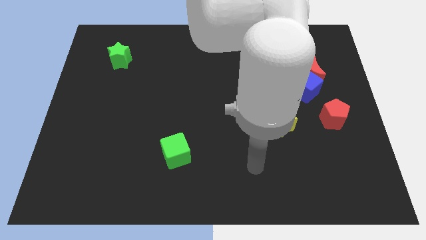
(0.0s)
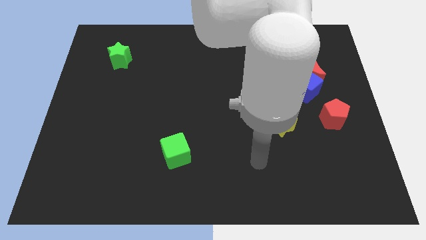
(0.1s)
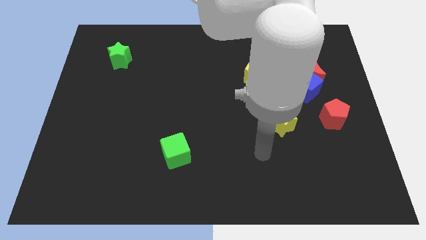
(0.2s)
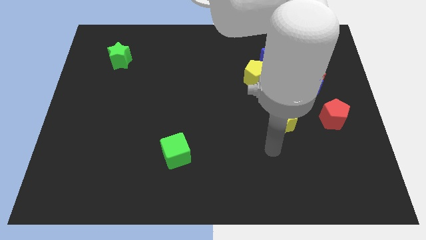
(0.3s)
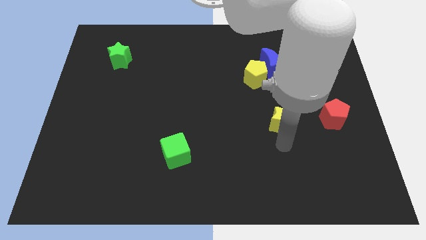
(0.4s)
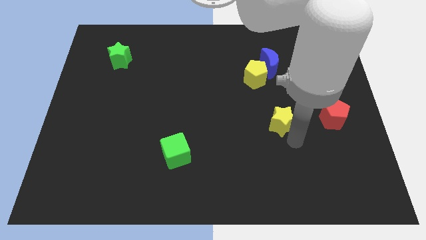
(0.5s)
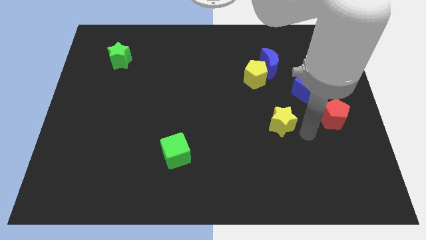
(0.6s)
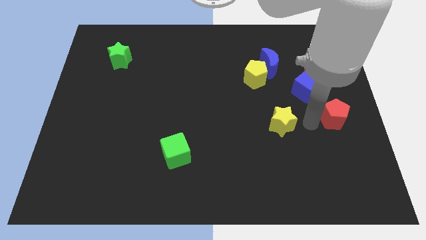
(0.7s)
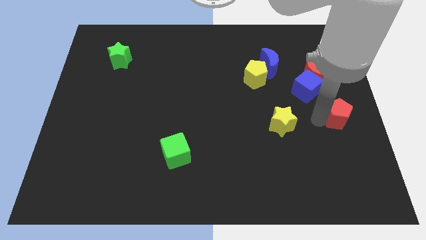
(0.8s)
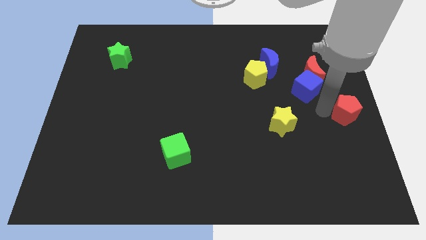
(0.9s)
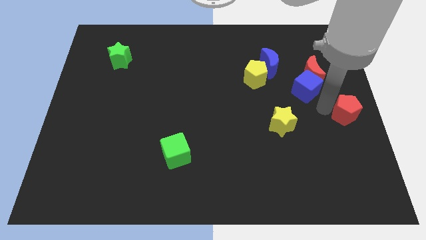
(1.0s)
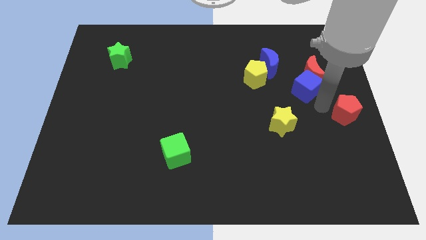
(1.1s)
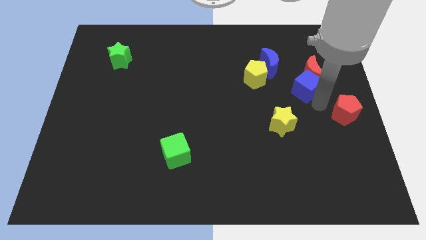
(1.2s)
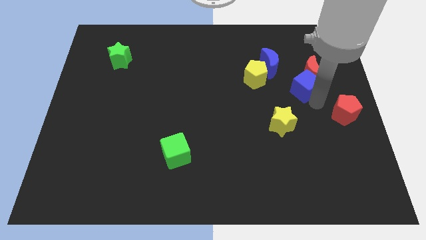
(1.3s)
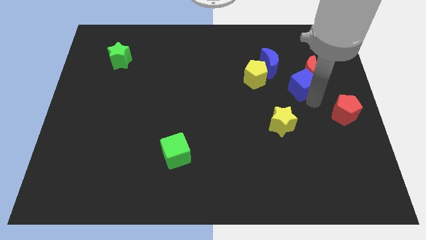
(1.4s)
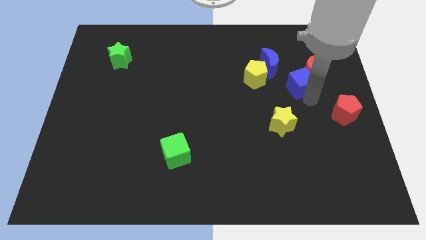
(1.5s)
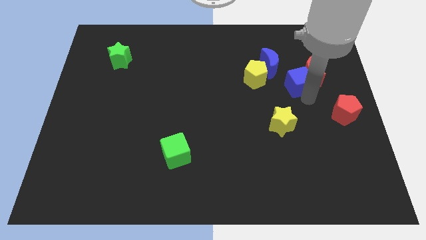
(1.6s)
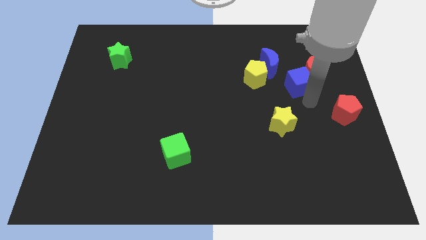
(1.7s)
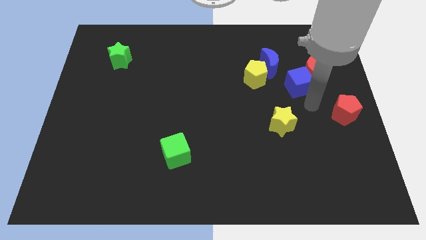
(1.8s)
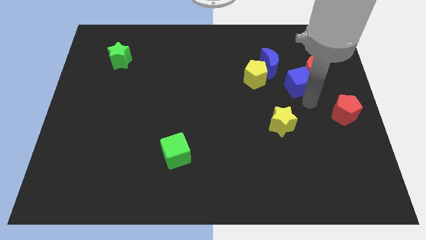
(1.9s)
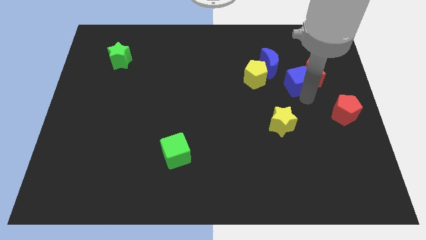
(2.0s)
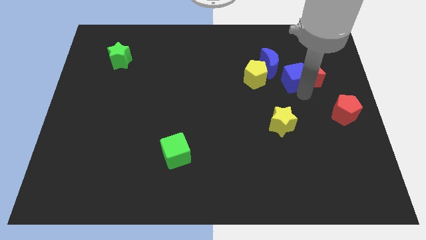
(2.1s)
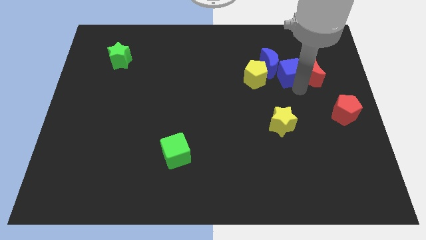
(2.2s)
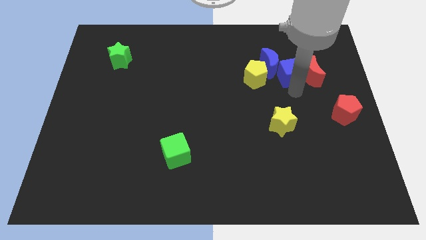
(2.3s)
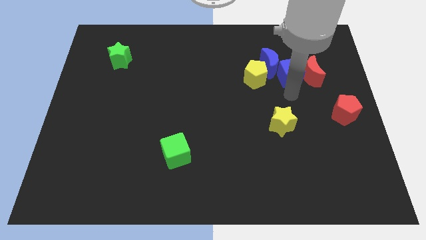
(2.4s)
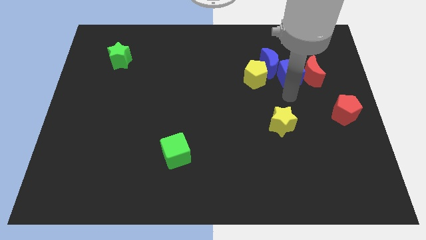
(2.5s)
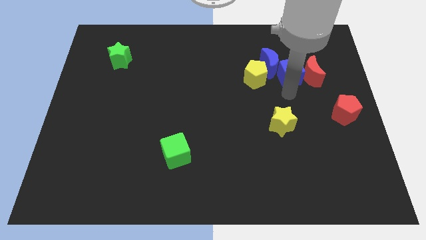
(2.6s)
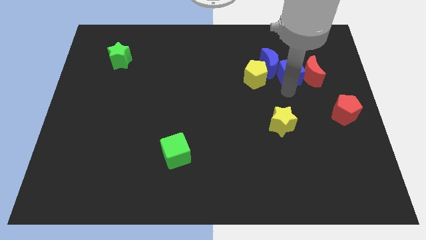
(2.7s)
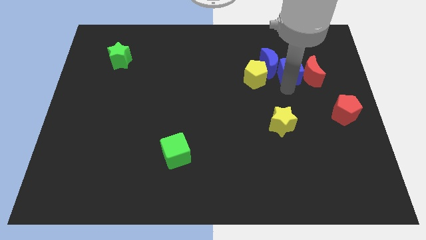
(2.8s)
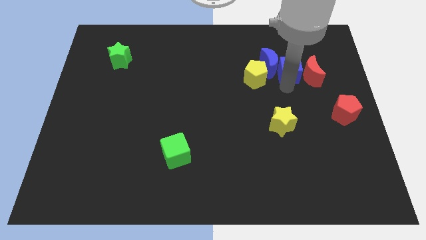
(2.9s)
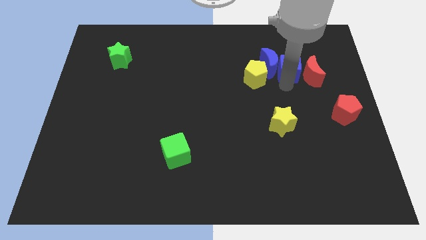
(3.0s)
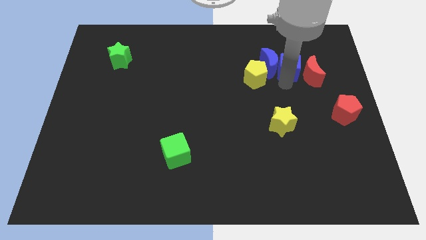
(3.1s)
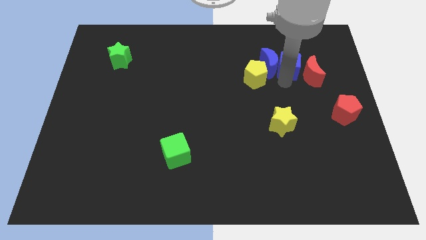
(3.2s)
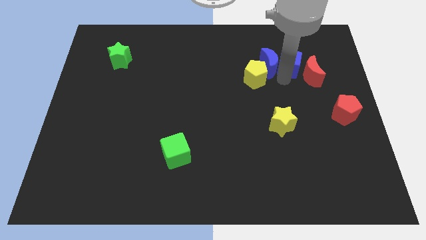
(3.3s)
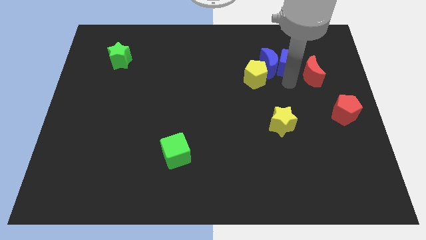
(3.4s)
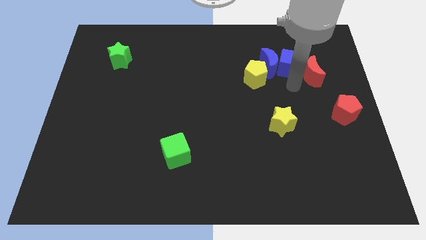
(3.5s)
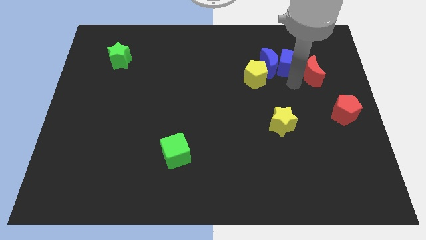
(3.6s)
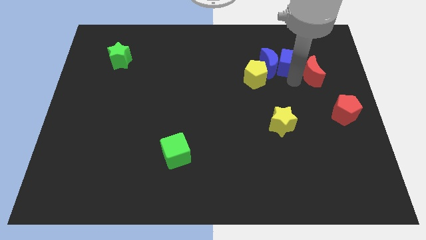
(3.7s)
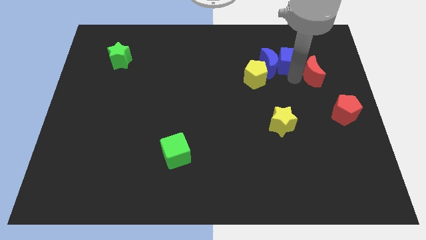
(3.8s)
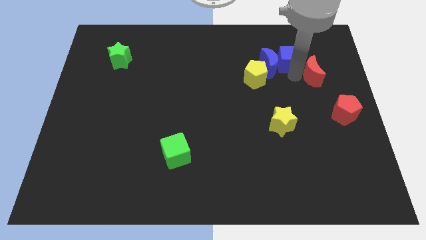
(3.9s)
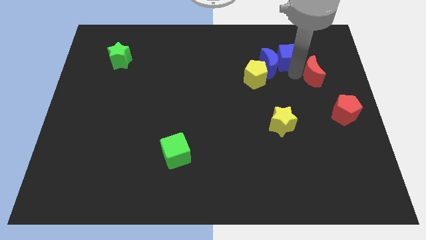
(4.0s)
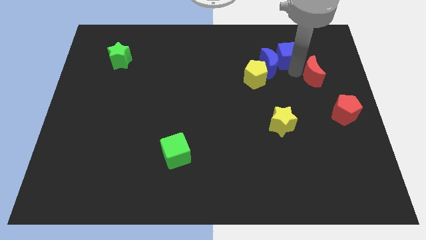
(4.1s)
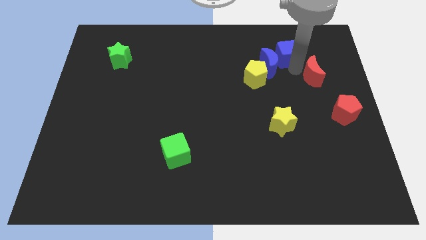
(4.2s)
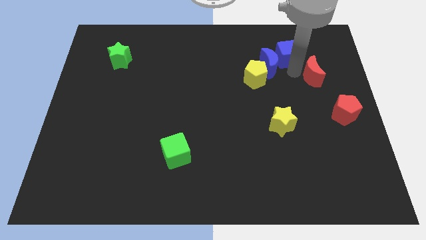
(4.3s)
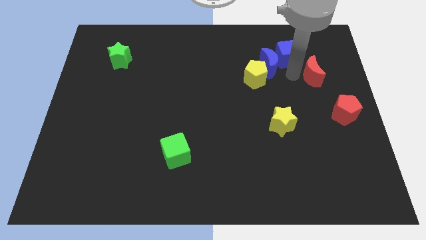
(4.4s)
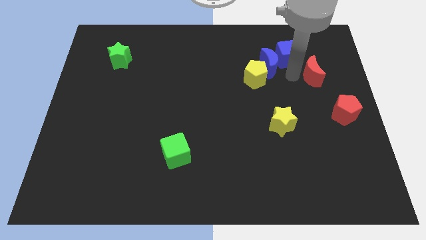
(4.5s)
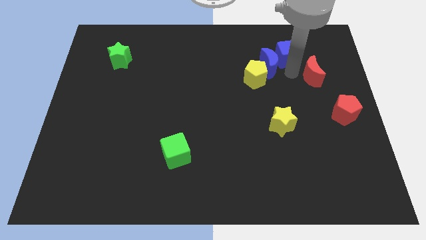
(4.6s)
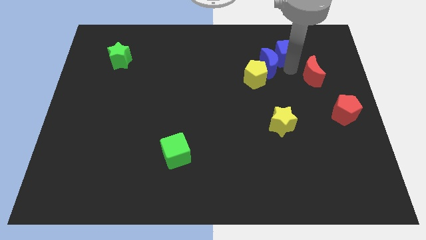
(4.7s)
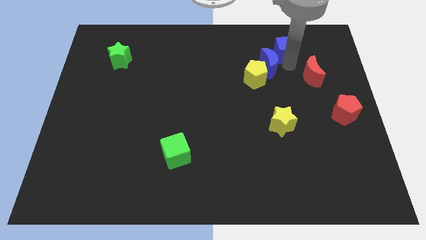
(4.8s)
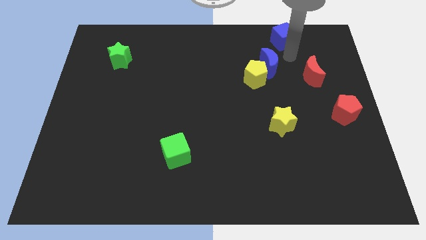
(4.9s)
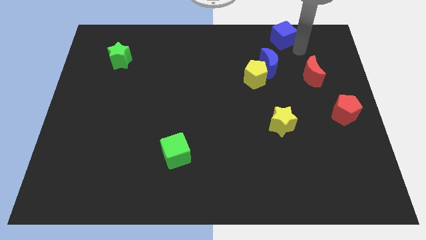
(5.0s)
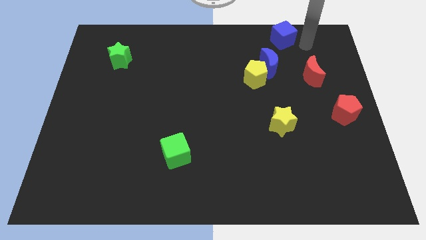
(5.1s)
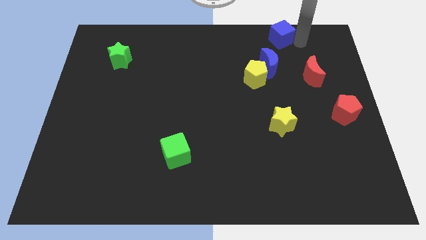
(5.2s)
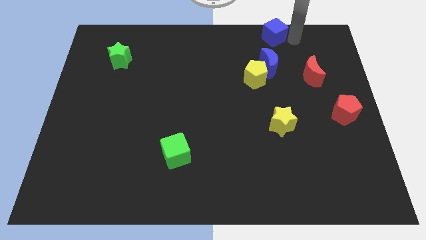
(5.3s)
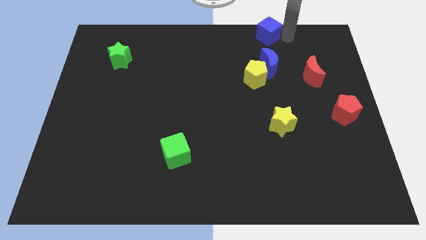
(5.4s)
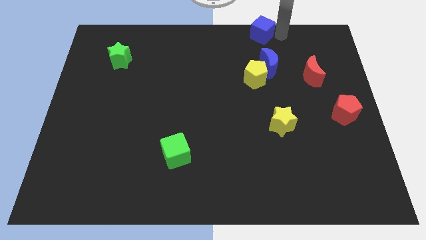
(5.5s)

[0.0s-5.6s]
push the blue cube to the top side
